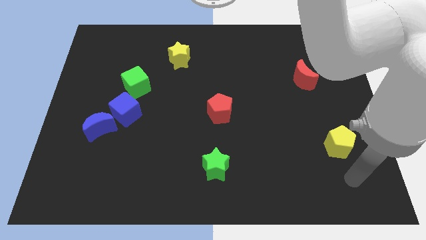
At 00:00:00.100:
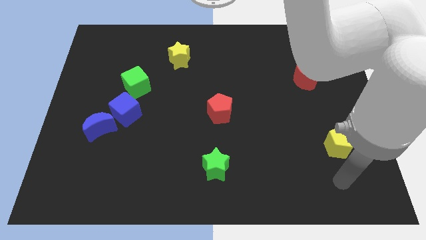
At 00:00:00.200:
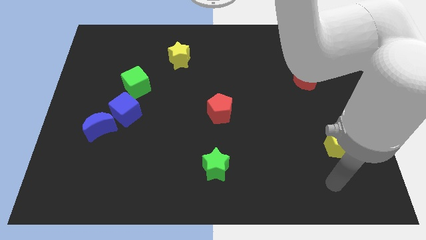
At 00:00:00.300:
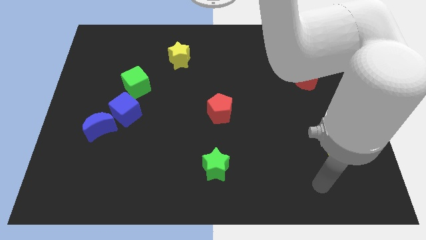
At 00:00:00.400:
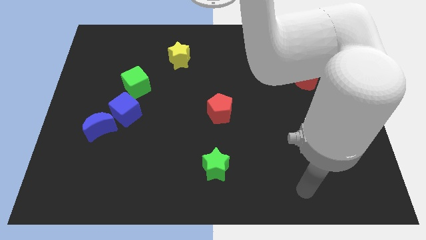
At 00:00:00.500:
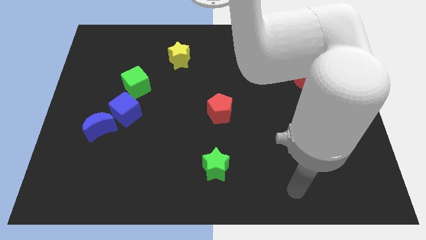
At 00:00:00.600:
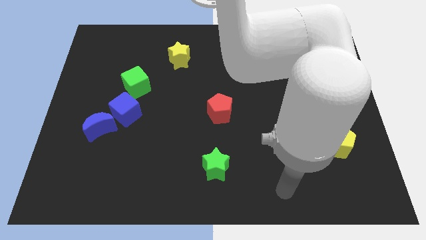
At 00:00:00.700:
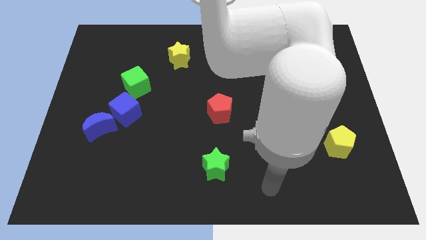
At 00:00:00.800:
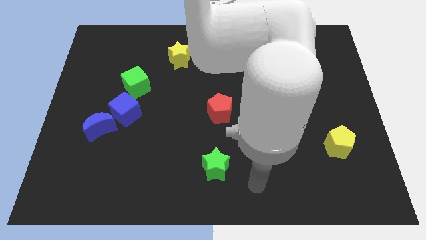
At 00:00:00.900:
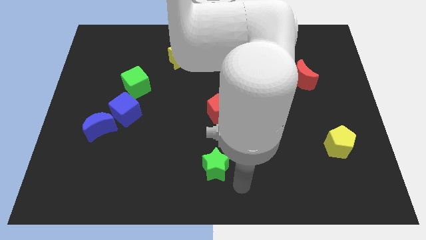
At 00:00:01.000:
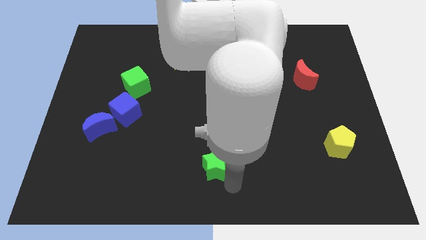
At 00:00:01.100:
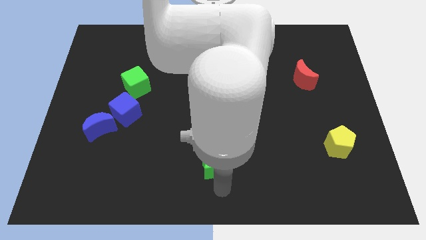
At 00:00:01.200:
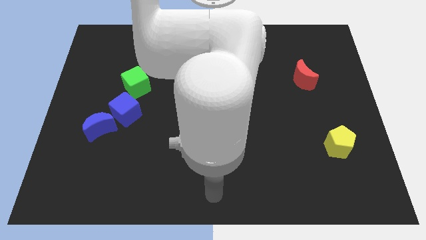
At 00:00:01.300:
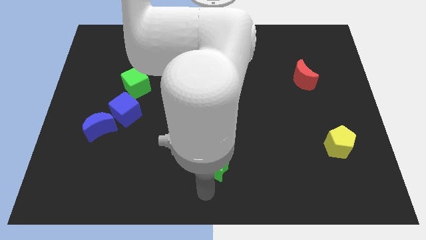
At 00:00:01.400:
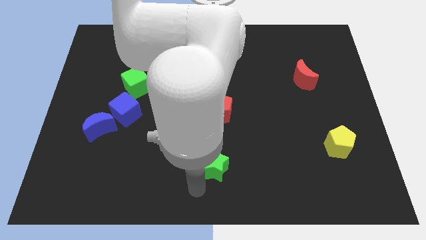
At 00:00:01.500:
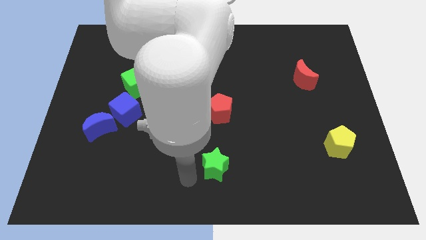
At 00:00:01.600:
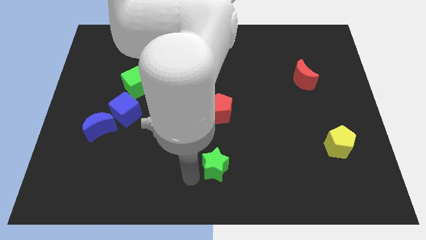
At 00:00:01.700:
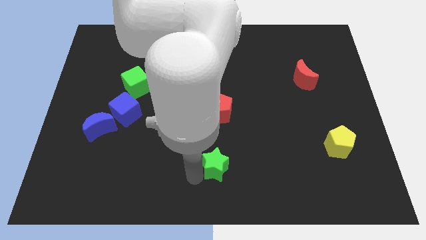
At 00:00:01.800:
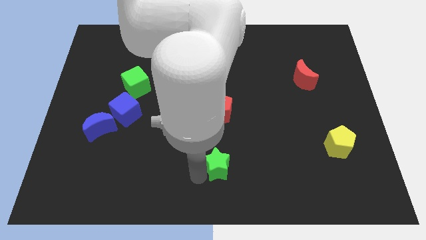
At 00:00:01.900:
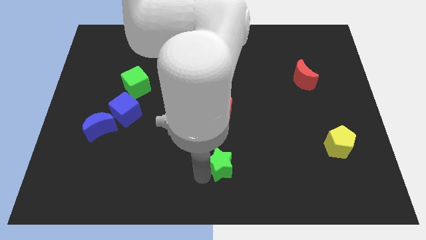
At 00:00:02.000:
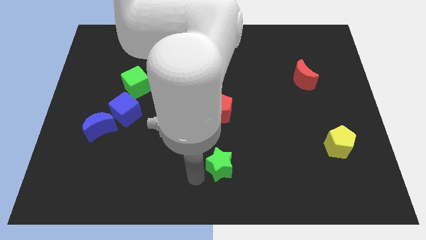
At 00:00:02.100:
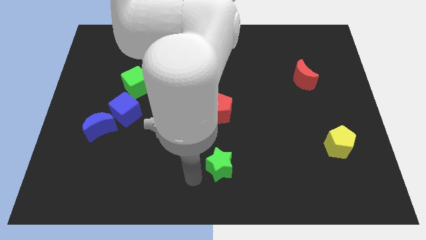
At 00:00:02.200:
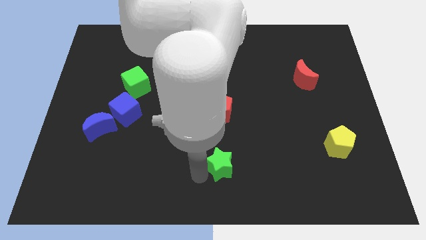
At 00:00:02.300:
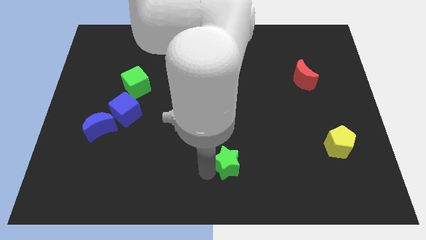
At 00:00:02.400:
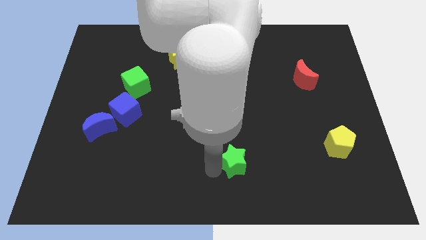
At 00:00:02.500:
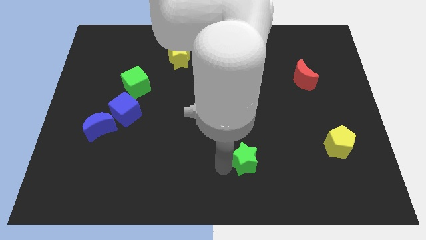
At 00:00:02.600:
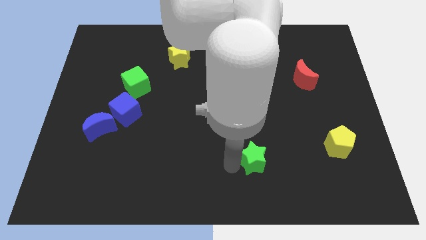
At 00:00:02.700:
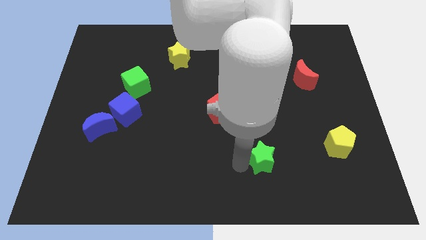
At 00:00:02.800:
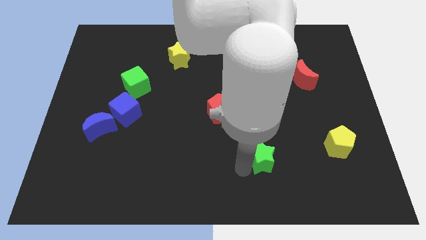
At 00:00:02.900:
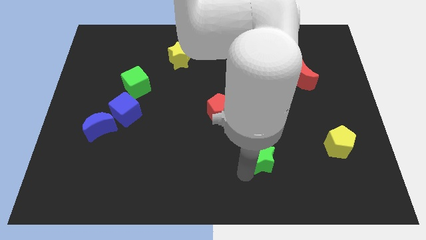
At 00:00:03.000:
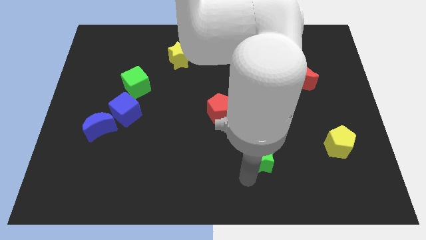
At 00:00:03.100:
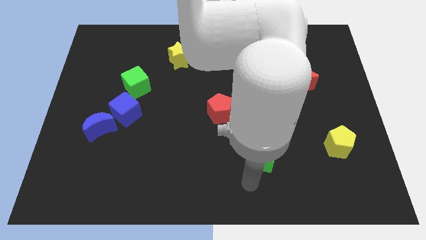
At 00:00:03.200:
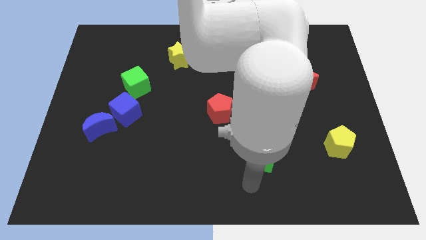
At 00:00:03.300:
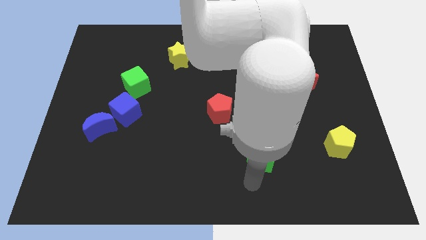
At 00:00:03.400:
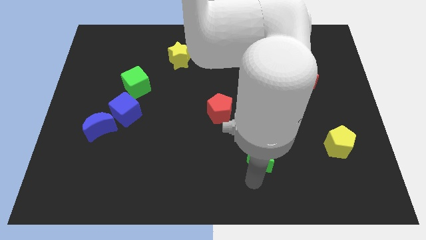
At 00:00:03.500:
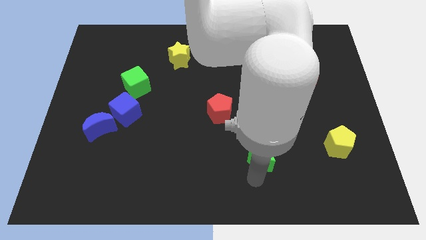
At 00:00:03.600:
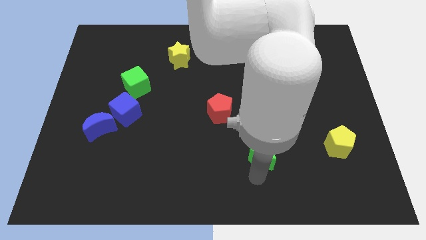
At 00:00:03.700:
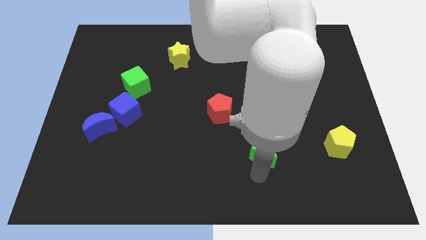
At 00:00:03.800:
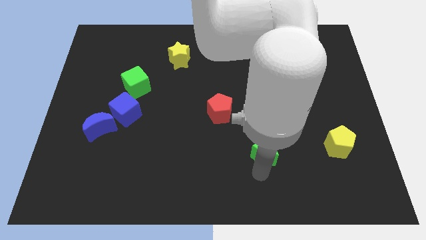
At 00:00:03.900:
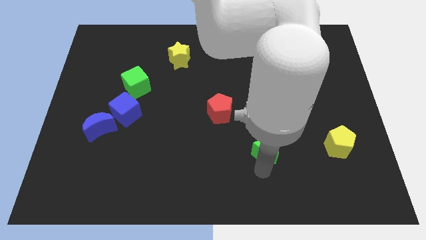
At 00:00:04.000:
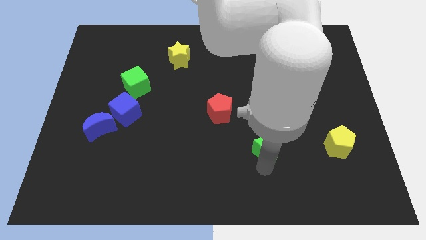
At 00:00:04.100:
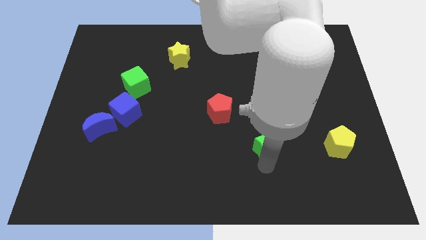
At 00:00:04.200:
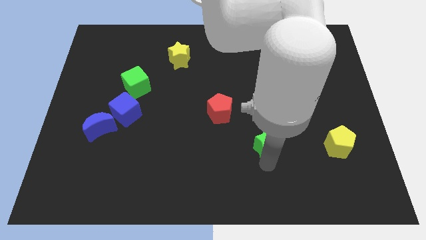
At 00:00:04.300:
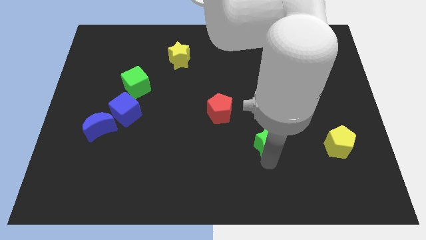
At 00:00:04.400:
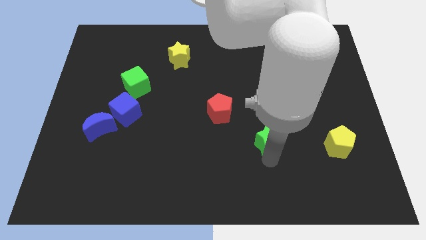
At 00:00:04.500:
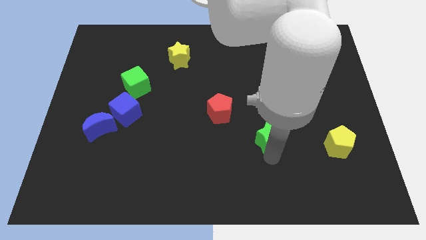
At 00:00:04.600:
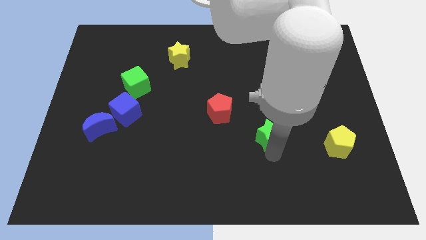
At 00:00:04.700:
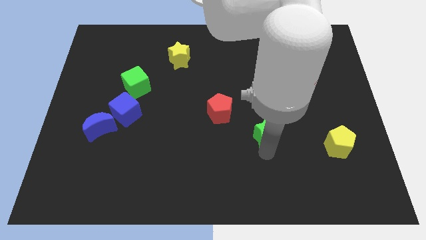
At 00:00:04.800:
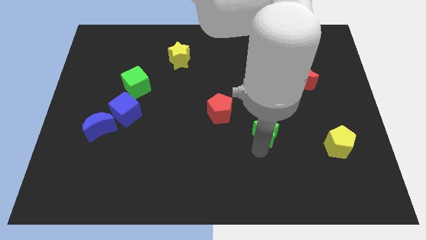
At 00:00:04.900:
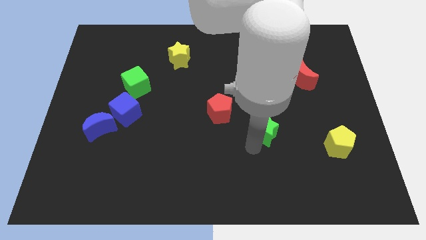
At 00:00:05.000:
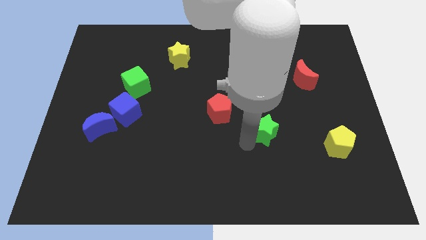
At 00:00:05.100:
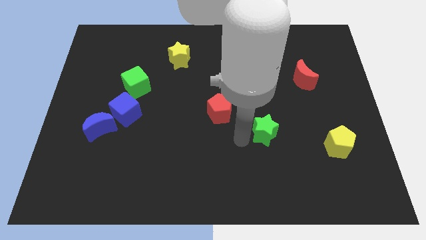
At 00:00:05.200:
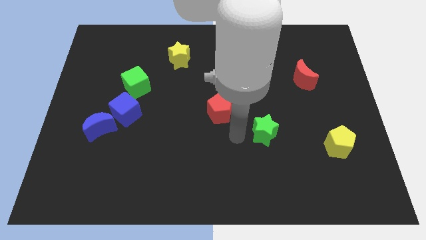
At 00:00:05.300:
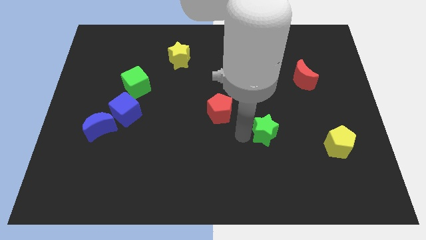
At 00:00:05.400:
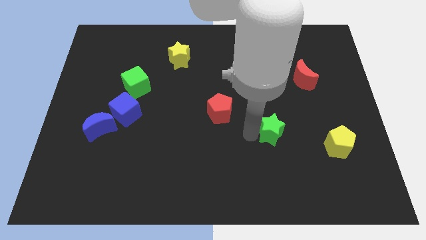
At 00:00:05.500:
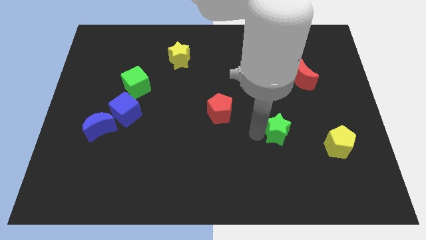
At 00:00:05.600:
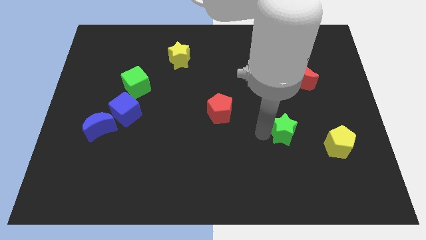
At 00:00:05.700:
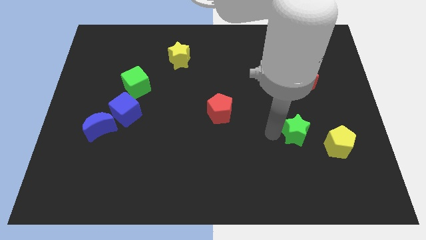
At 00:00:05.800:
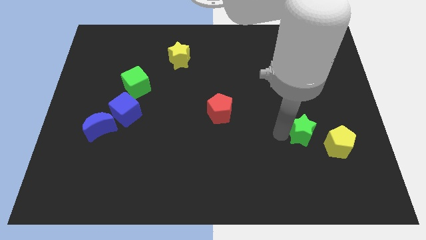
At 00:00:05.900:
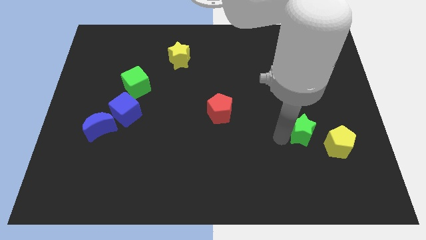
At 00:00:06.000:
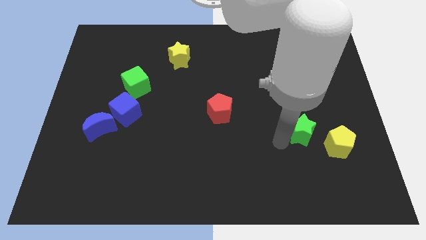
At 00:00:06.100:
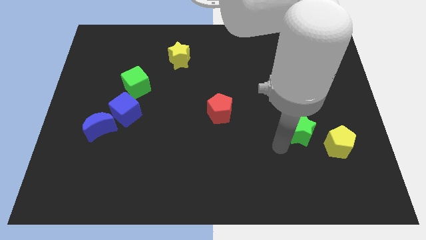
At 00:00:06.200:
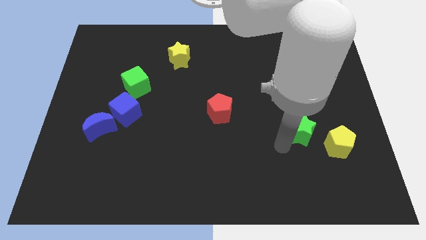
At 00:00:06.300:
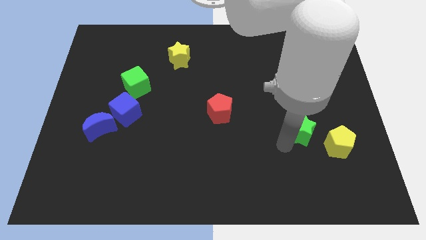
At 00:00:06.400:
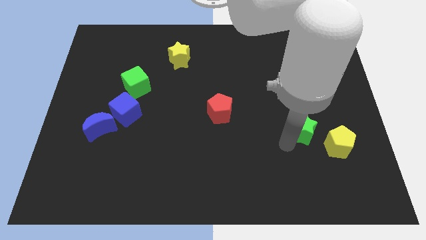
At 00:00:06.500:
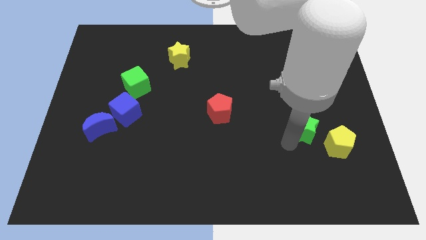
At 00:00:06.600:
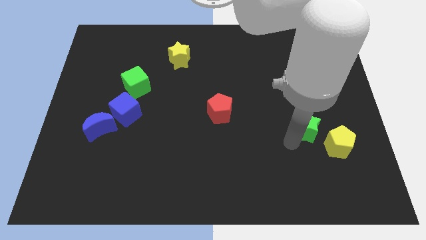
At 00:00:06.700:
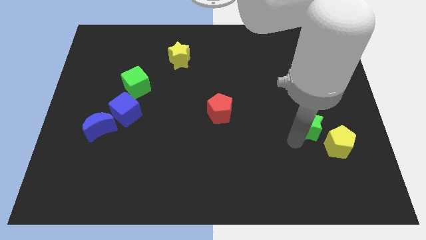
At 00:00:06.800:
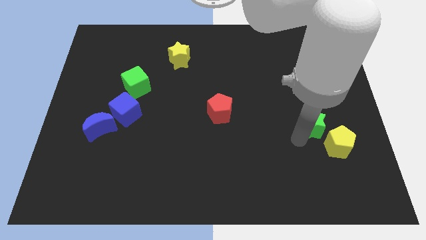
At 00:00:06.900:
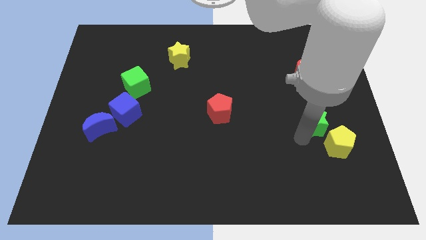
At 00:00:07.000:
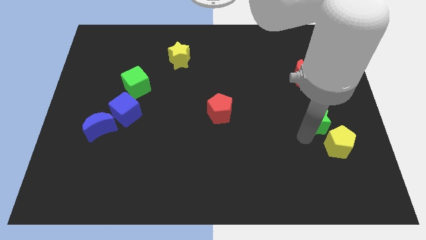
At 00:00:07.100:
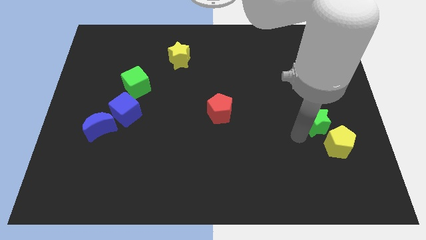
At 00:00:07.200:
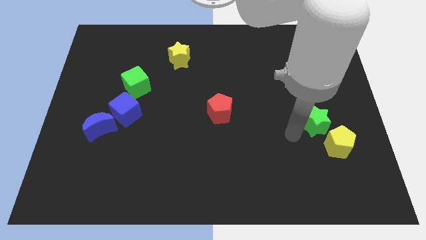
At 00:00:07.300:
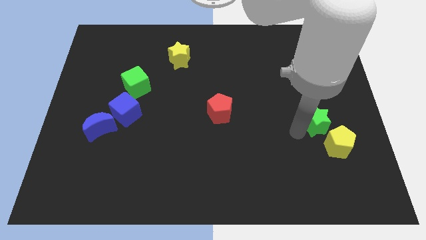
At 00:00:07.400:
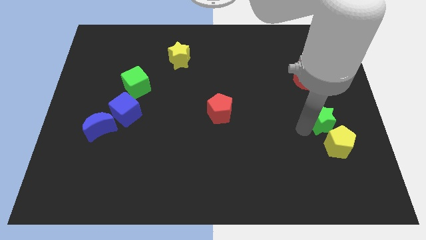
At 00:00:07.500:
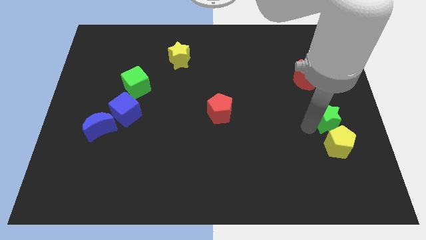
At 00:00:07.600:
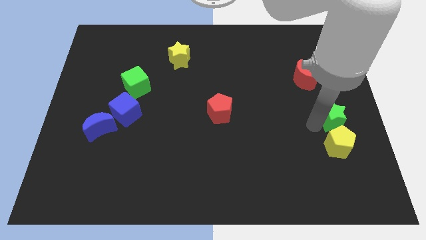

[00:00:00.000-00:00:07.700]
put the green star to the center right
